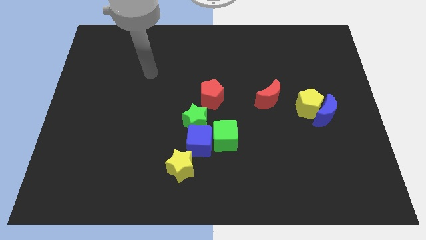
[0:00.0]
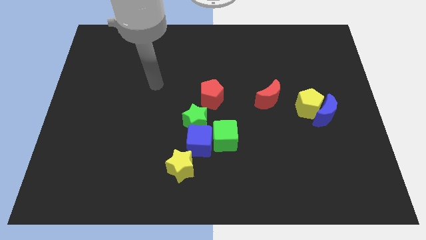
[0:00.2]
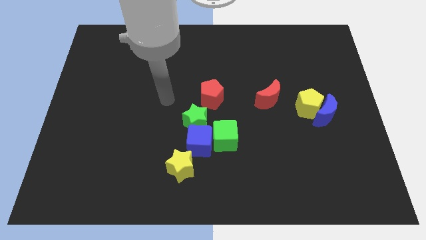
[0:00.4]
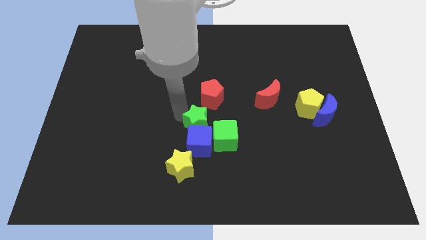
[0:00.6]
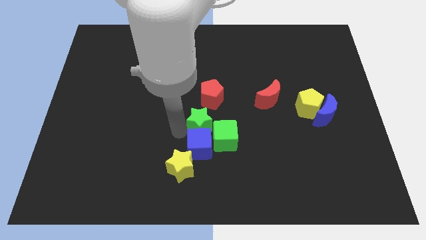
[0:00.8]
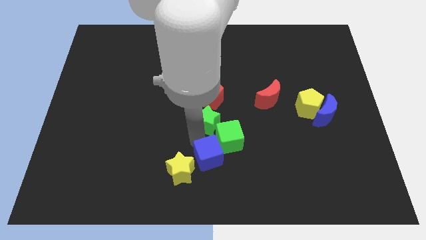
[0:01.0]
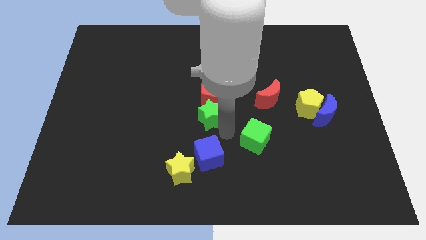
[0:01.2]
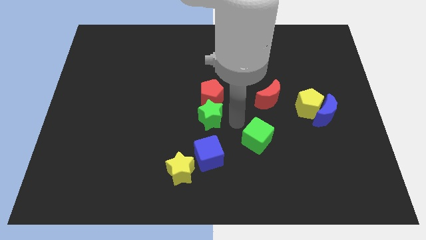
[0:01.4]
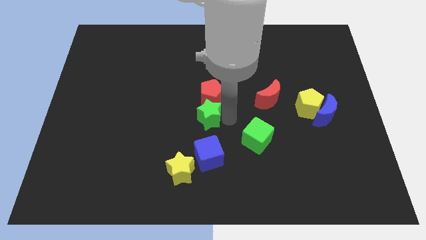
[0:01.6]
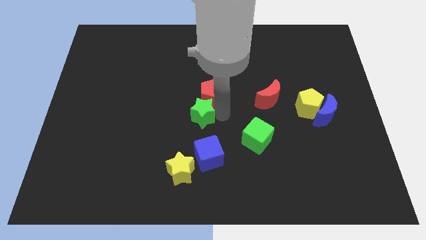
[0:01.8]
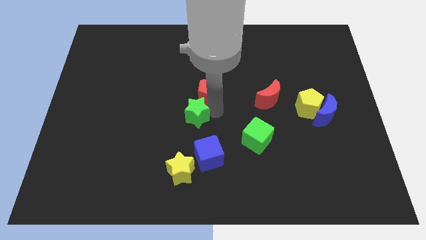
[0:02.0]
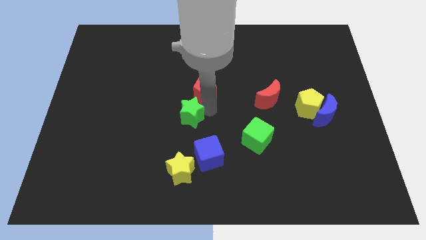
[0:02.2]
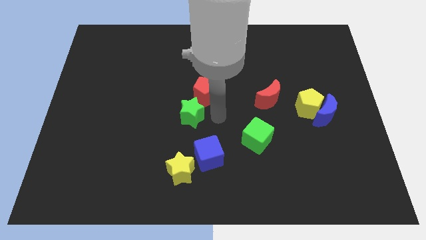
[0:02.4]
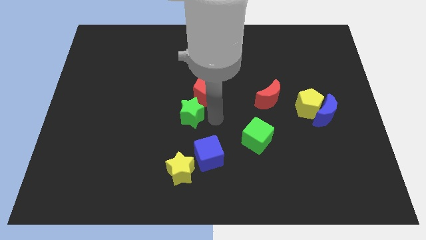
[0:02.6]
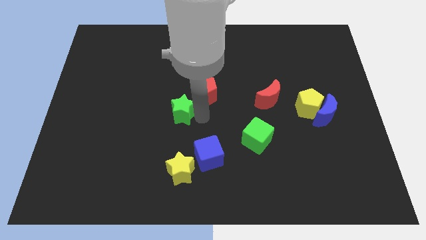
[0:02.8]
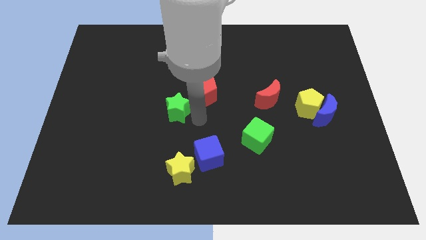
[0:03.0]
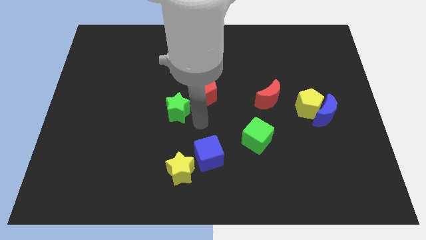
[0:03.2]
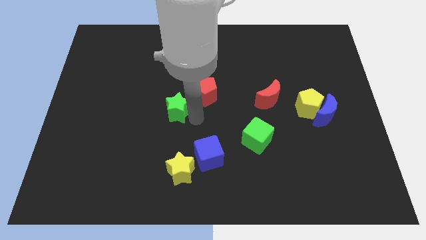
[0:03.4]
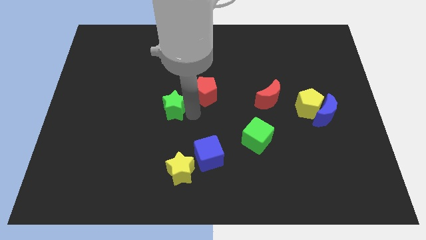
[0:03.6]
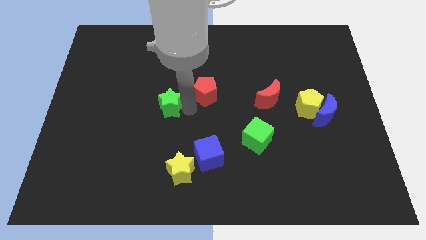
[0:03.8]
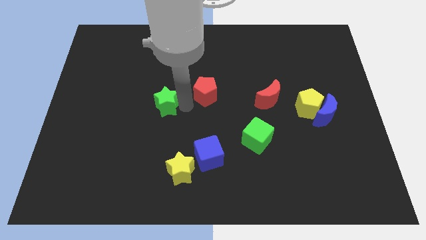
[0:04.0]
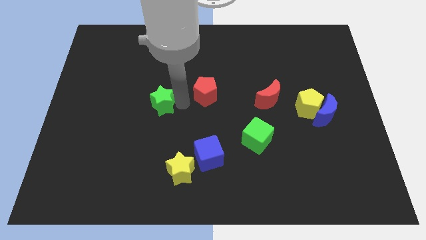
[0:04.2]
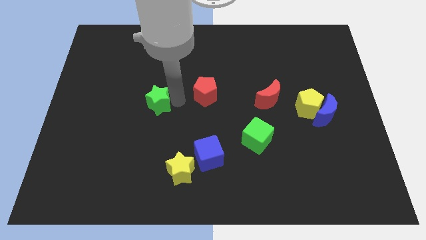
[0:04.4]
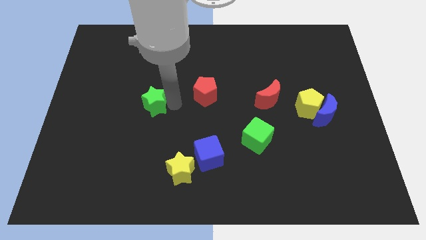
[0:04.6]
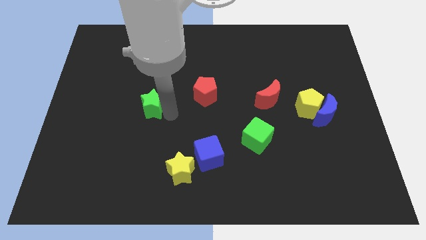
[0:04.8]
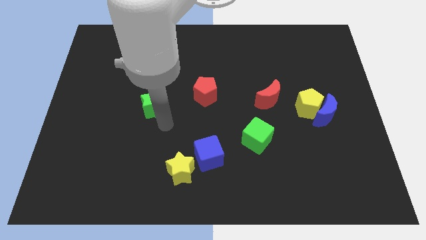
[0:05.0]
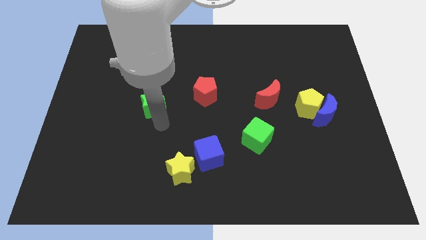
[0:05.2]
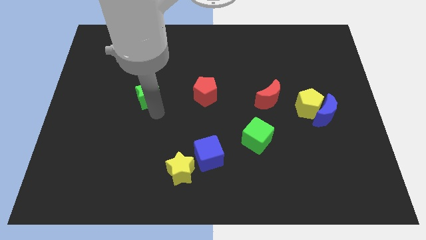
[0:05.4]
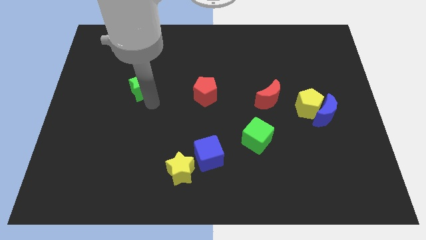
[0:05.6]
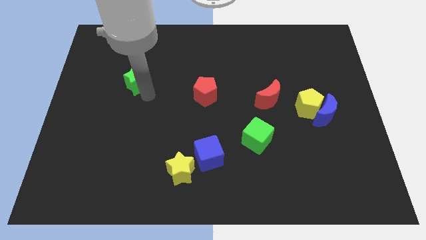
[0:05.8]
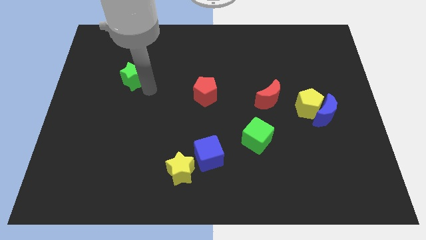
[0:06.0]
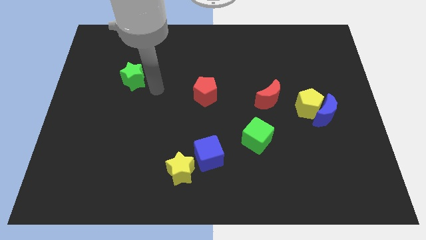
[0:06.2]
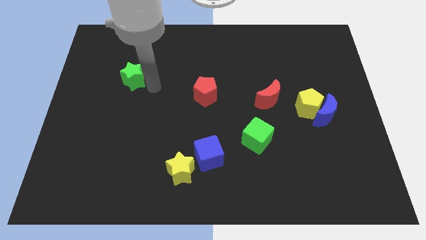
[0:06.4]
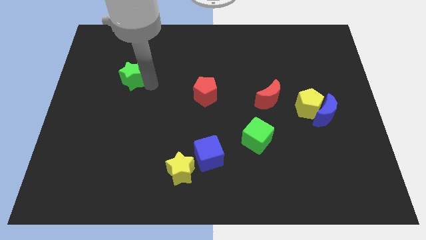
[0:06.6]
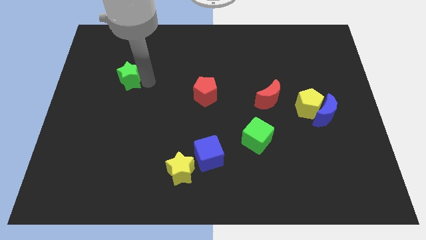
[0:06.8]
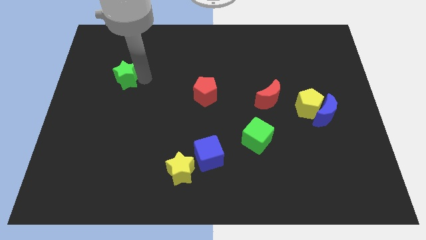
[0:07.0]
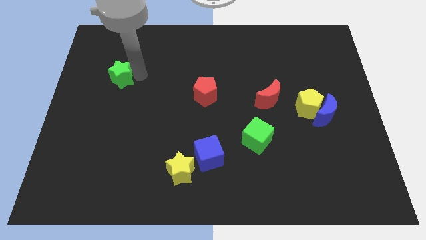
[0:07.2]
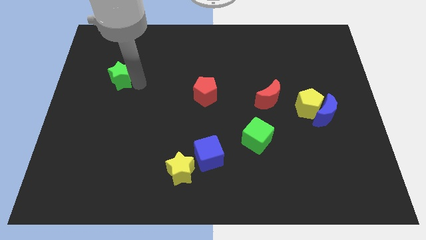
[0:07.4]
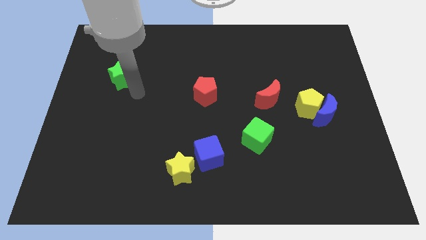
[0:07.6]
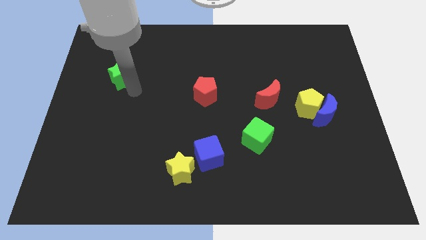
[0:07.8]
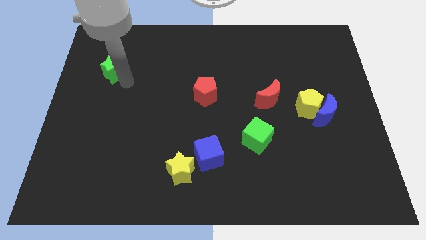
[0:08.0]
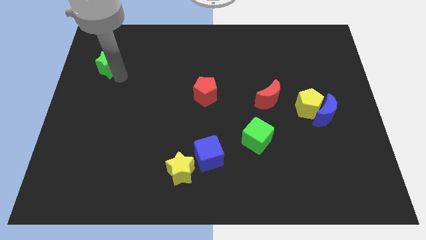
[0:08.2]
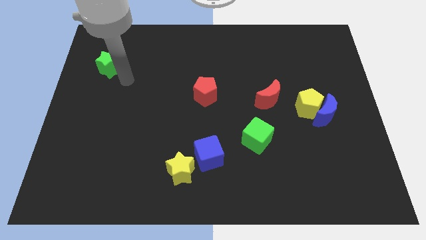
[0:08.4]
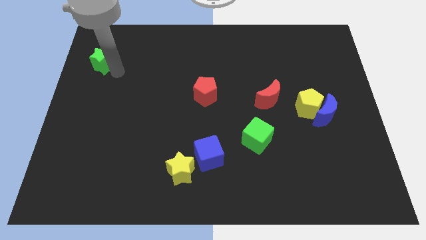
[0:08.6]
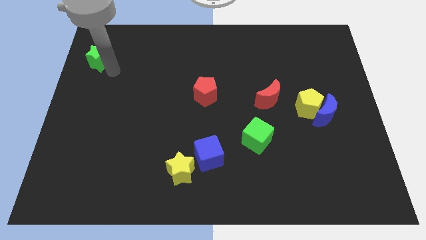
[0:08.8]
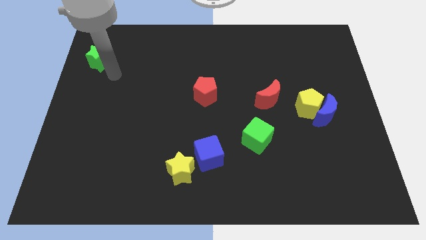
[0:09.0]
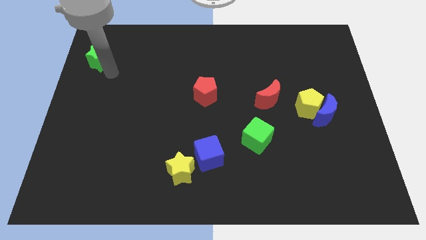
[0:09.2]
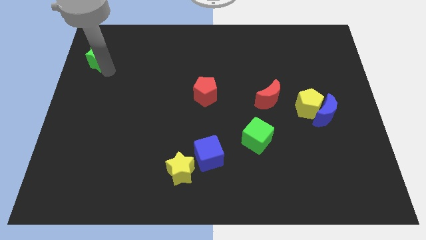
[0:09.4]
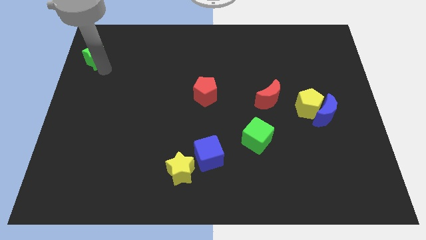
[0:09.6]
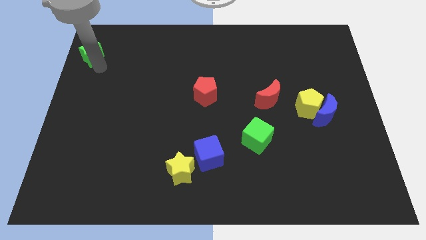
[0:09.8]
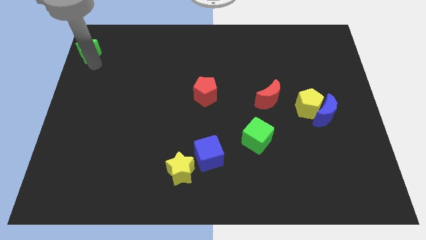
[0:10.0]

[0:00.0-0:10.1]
put the green star to the upper left corner
